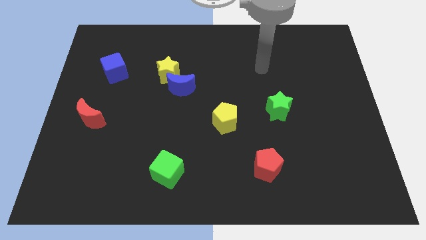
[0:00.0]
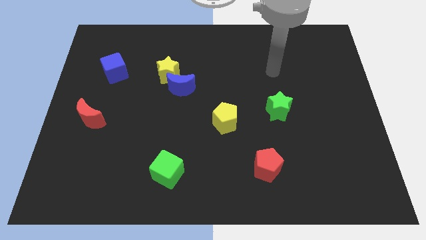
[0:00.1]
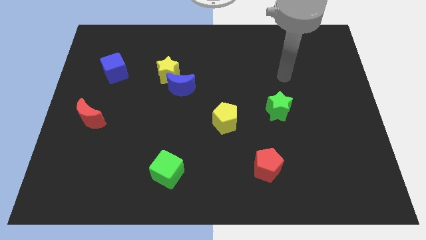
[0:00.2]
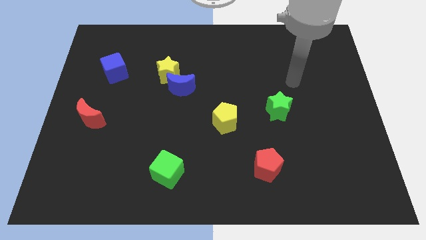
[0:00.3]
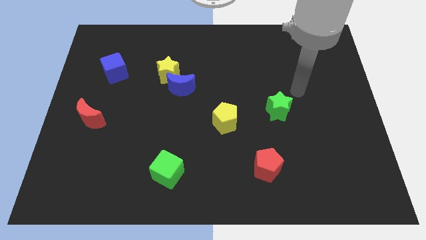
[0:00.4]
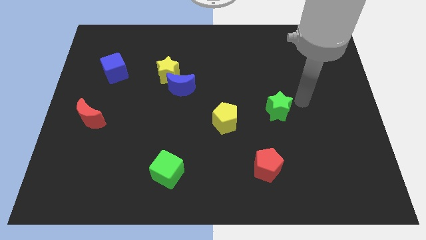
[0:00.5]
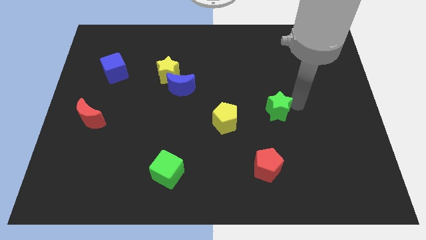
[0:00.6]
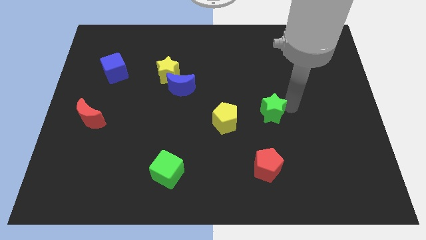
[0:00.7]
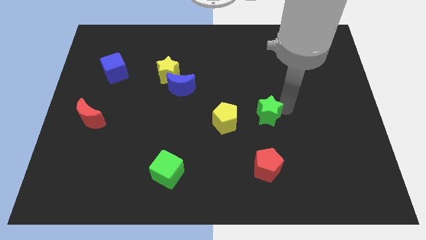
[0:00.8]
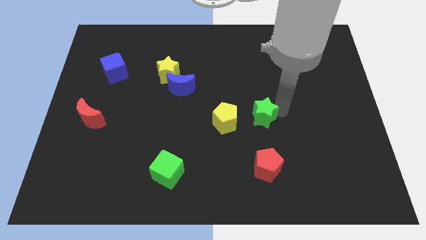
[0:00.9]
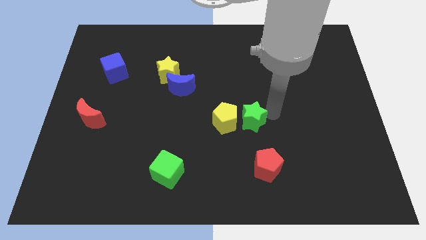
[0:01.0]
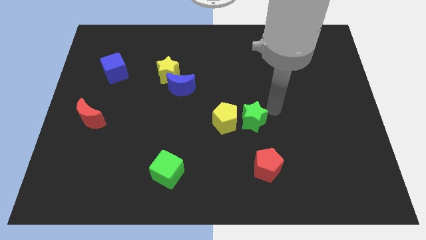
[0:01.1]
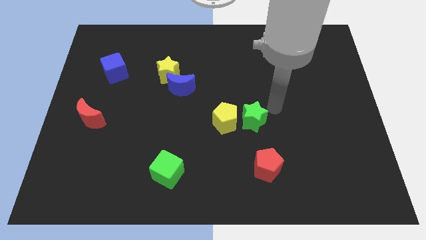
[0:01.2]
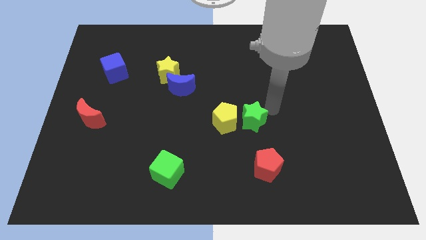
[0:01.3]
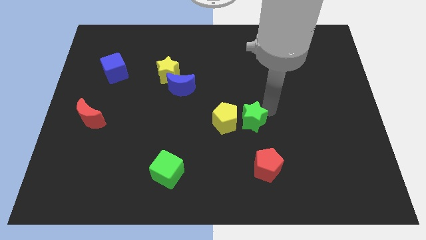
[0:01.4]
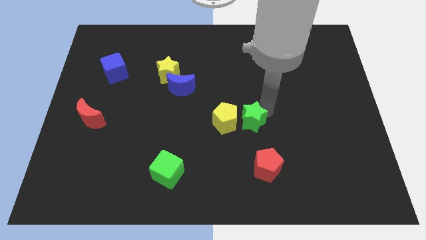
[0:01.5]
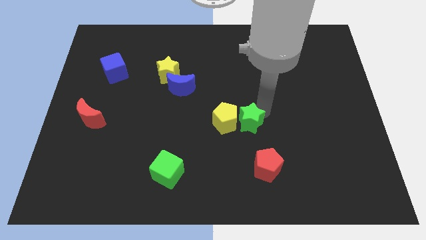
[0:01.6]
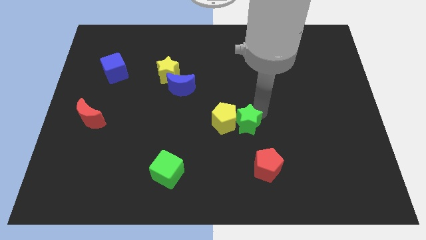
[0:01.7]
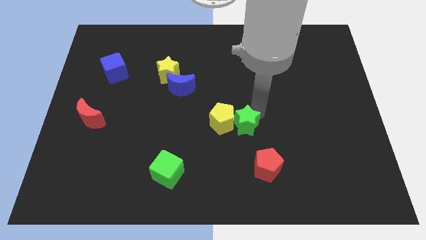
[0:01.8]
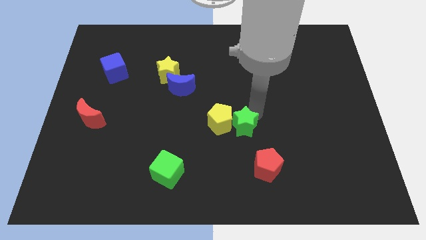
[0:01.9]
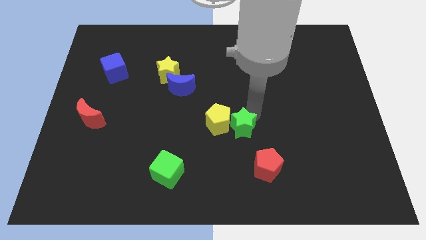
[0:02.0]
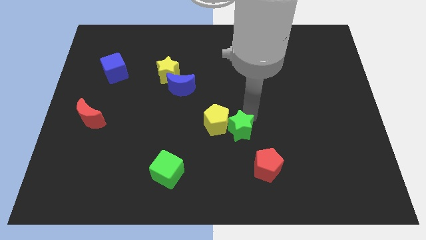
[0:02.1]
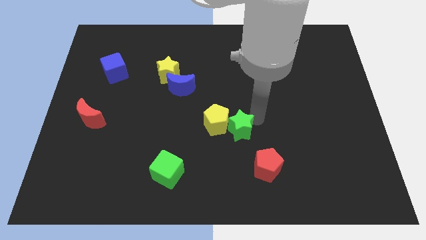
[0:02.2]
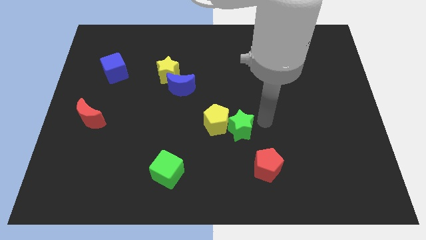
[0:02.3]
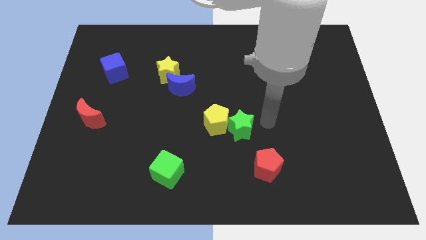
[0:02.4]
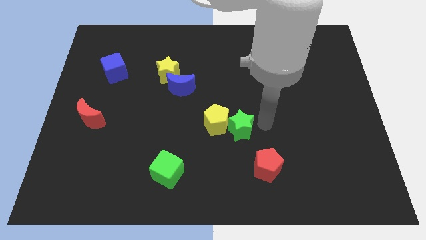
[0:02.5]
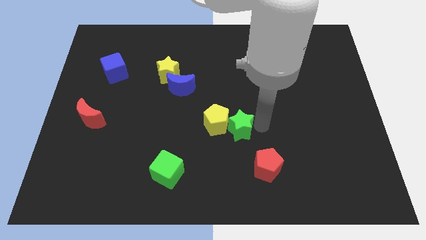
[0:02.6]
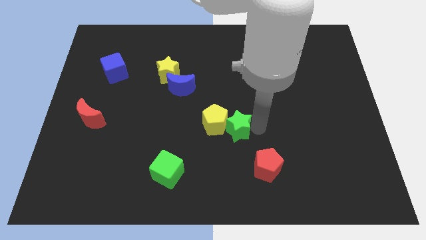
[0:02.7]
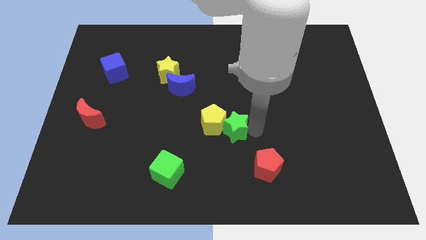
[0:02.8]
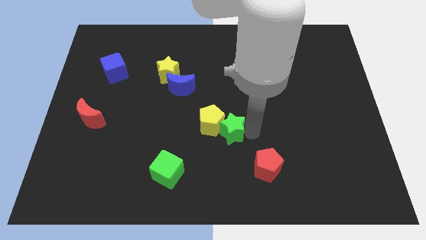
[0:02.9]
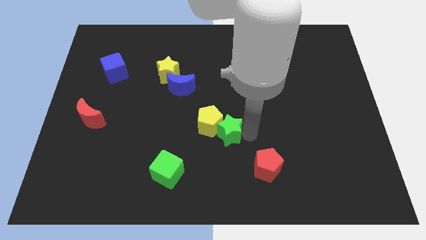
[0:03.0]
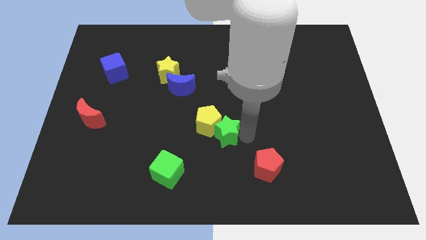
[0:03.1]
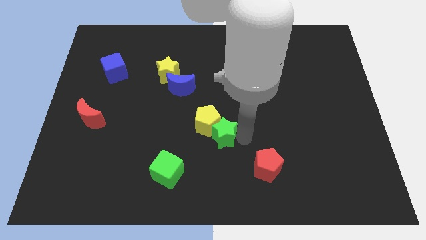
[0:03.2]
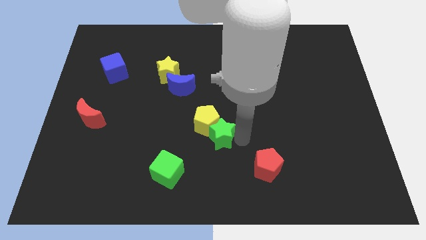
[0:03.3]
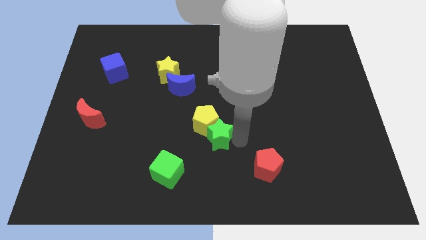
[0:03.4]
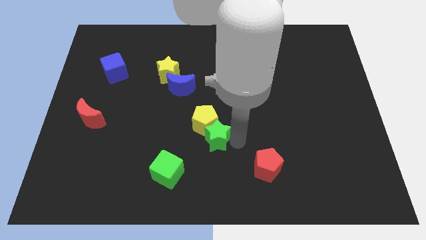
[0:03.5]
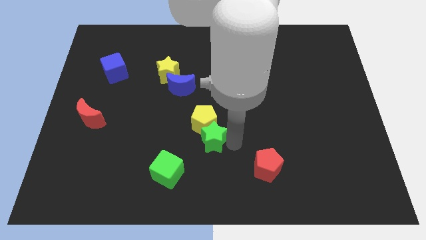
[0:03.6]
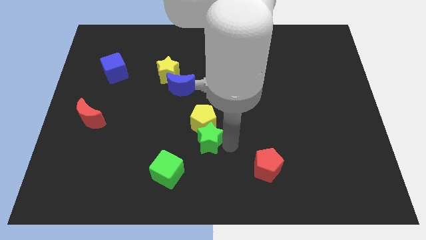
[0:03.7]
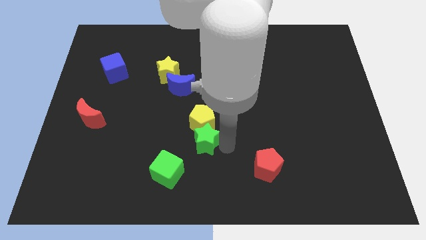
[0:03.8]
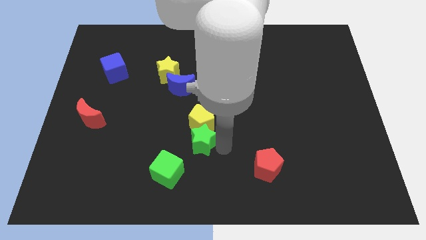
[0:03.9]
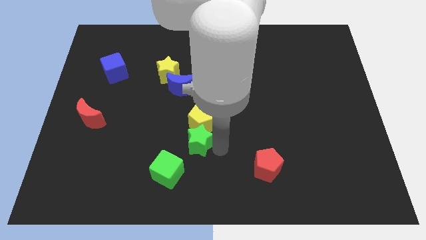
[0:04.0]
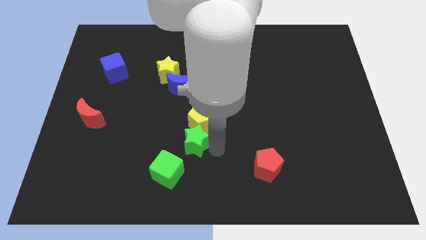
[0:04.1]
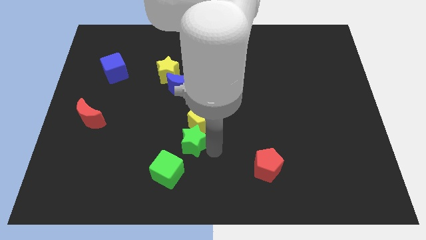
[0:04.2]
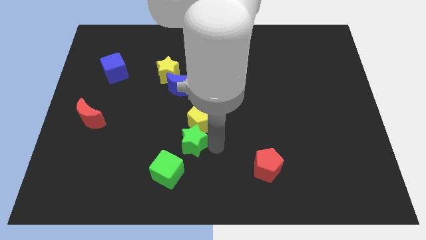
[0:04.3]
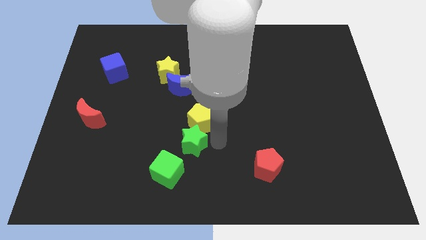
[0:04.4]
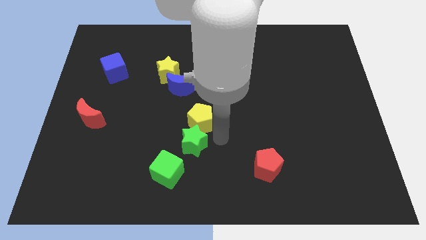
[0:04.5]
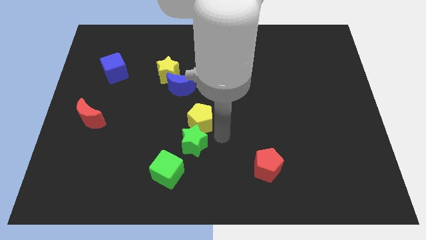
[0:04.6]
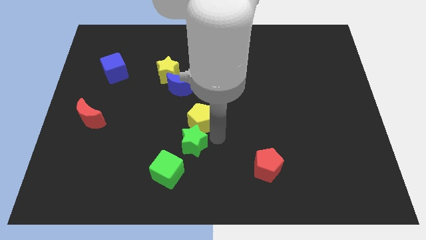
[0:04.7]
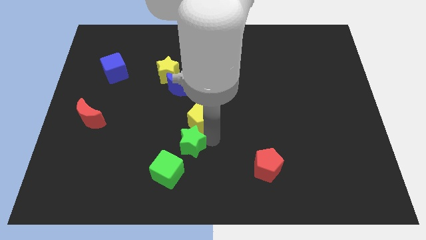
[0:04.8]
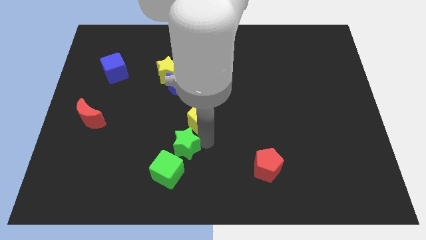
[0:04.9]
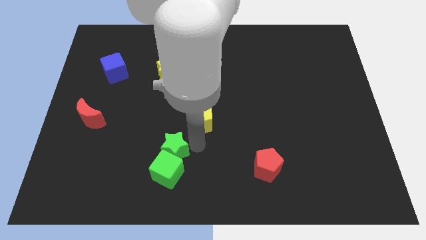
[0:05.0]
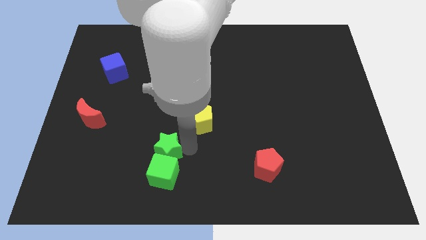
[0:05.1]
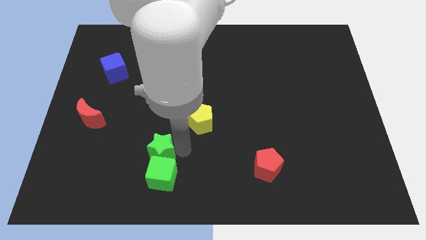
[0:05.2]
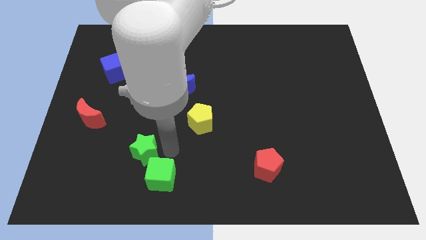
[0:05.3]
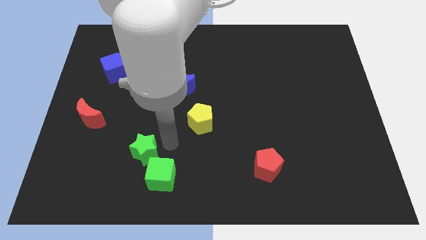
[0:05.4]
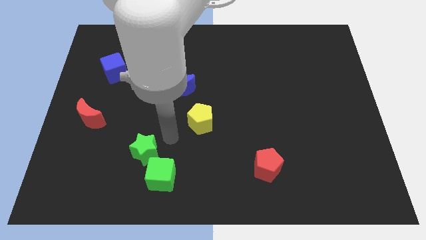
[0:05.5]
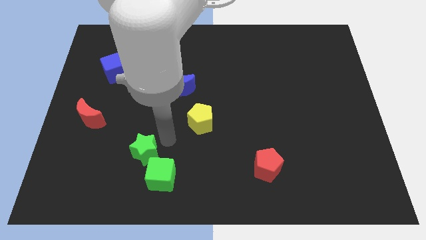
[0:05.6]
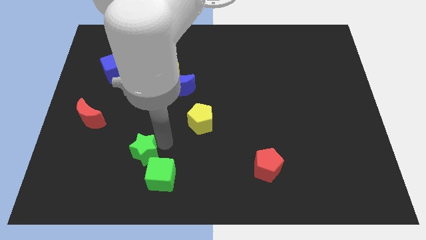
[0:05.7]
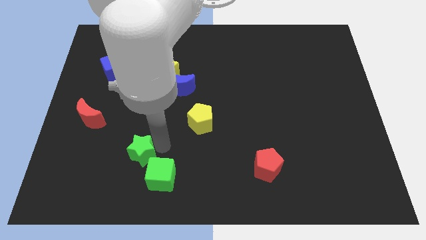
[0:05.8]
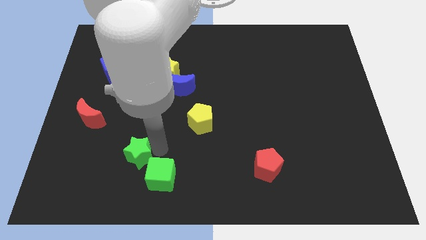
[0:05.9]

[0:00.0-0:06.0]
slide the green star just left of the green cube

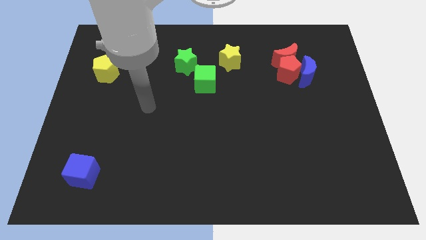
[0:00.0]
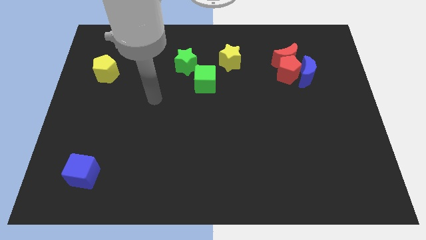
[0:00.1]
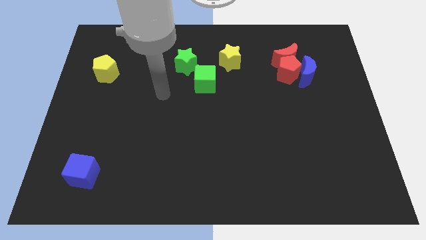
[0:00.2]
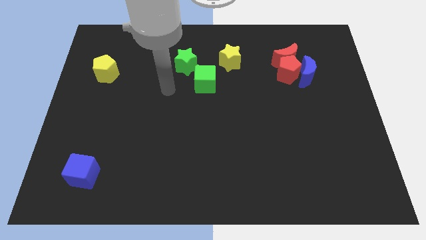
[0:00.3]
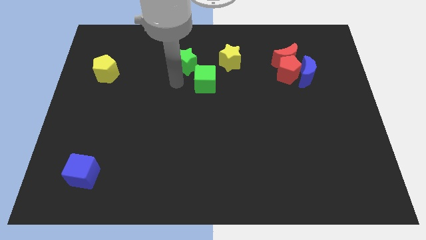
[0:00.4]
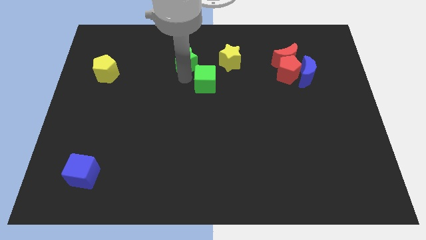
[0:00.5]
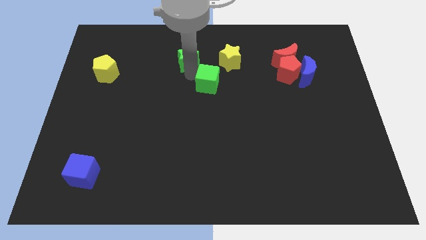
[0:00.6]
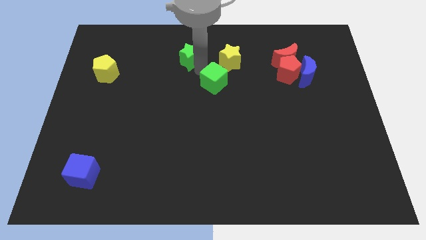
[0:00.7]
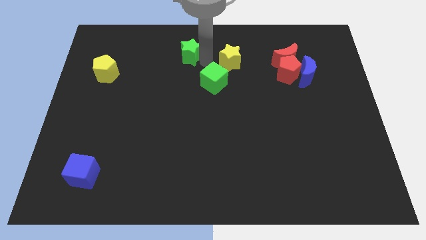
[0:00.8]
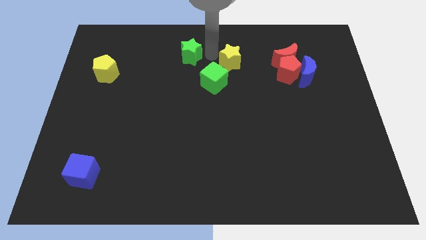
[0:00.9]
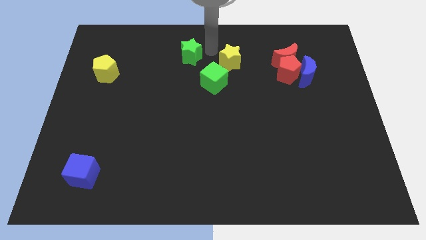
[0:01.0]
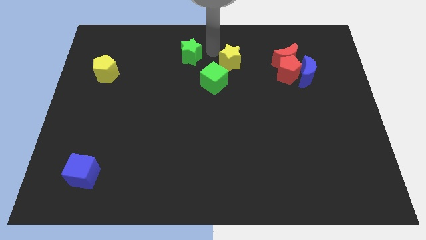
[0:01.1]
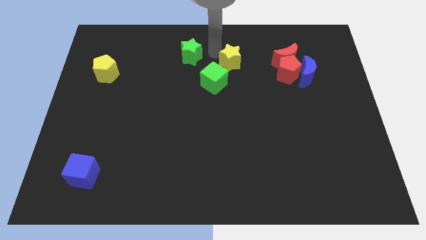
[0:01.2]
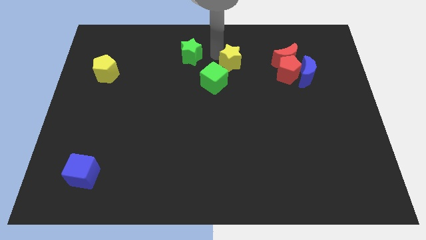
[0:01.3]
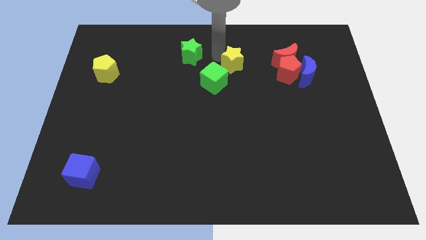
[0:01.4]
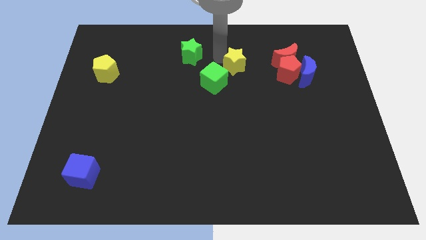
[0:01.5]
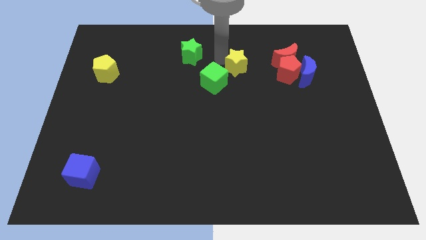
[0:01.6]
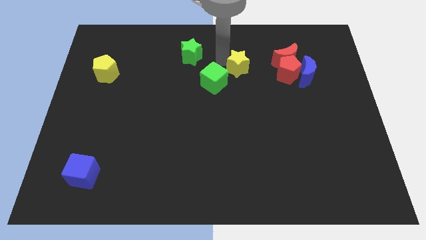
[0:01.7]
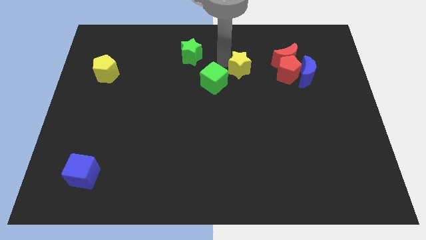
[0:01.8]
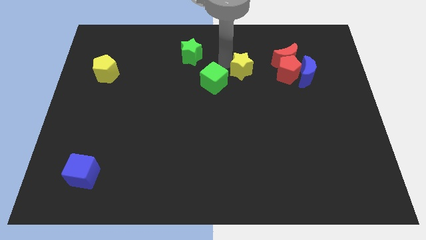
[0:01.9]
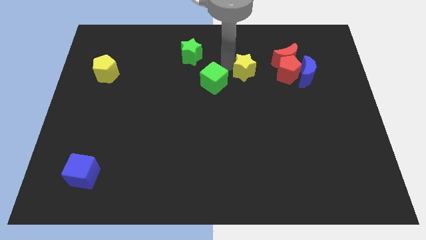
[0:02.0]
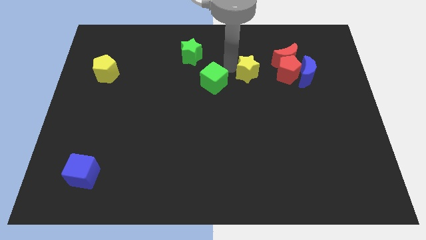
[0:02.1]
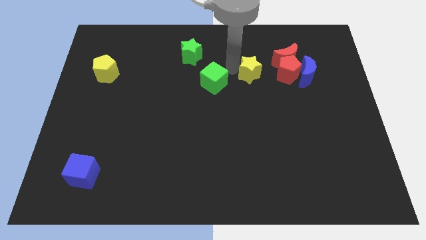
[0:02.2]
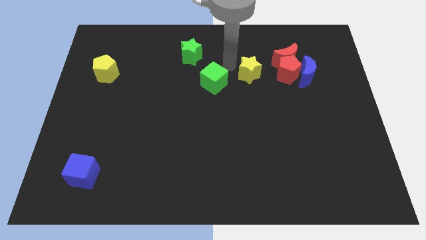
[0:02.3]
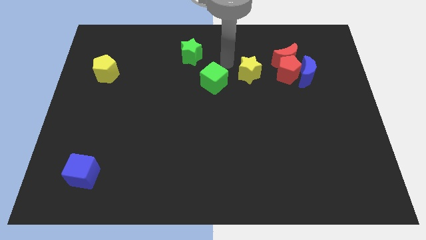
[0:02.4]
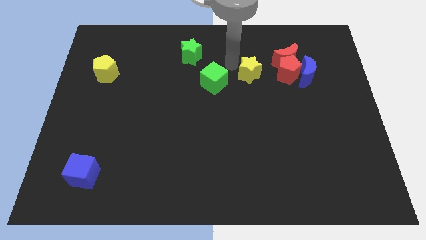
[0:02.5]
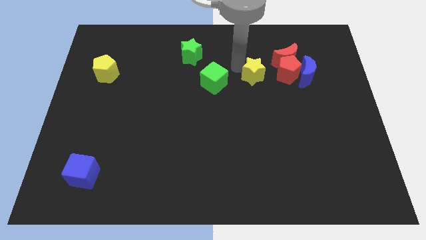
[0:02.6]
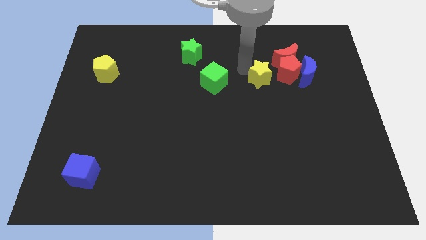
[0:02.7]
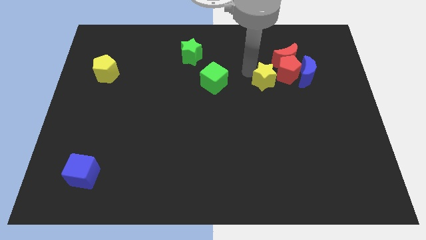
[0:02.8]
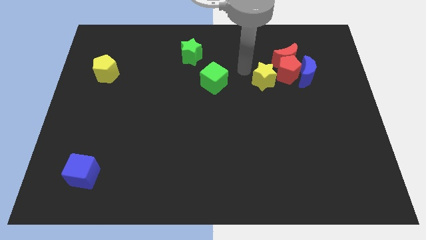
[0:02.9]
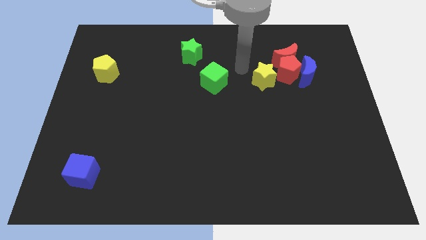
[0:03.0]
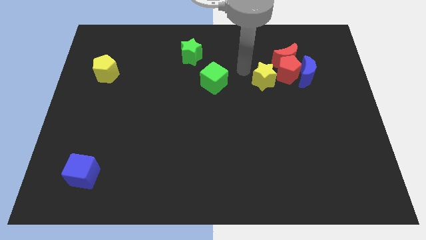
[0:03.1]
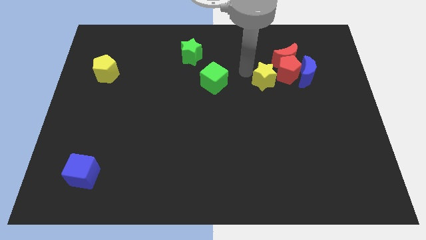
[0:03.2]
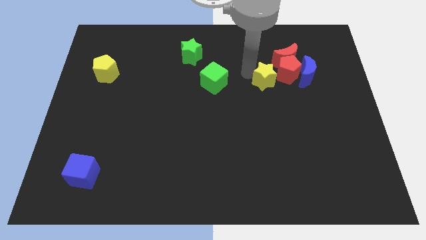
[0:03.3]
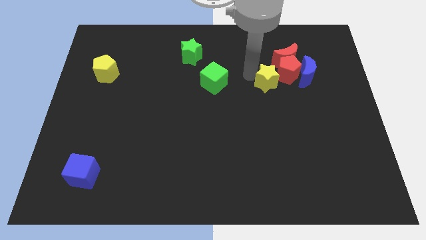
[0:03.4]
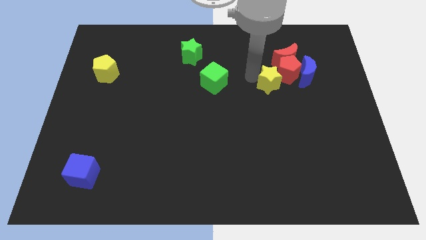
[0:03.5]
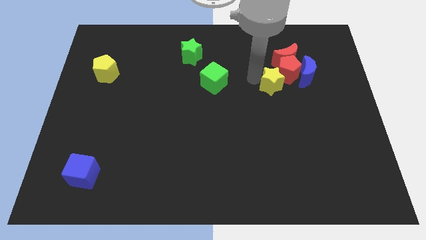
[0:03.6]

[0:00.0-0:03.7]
put the yellow star to the bottom side of the red moon
